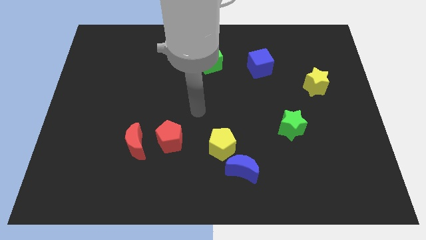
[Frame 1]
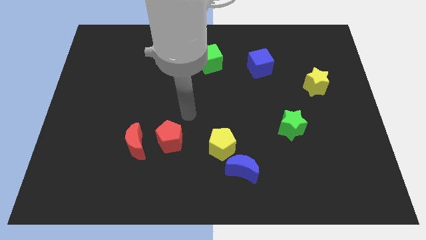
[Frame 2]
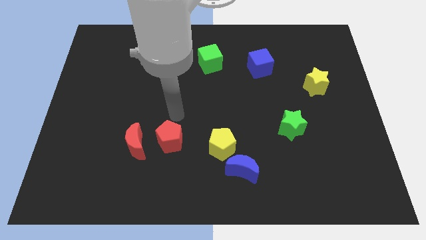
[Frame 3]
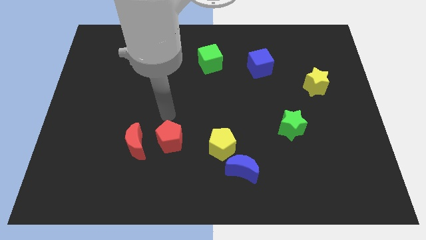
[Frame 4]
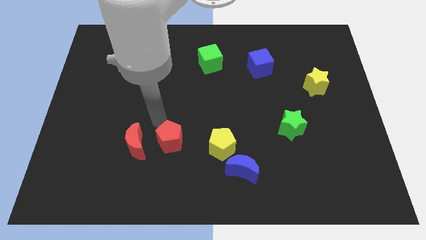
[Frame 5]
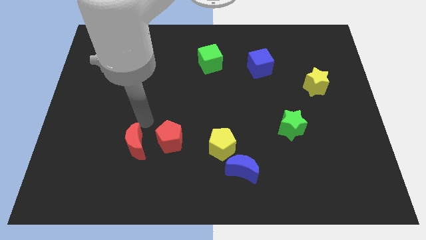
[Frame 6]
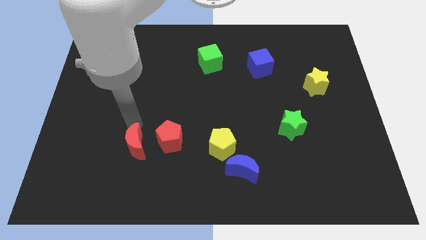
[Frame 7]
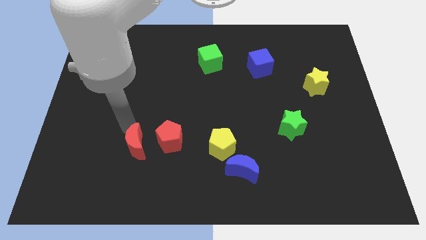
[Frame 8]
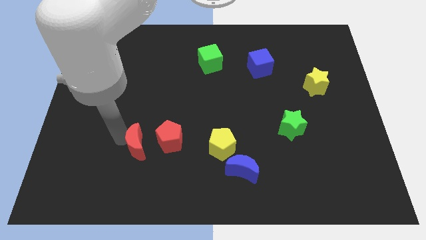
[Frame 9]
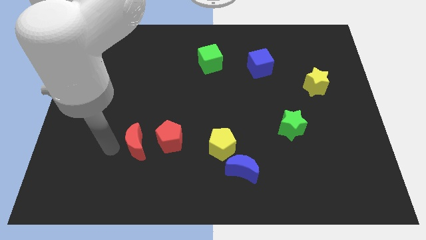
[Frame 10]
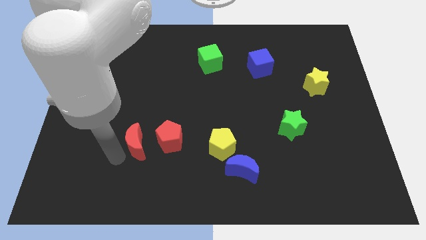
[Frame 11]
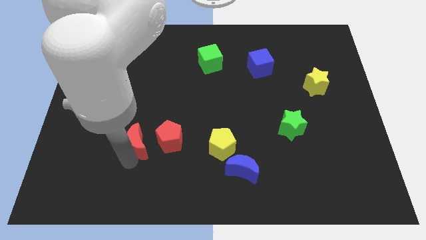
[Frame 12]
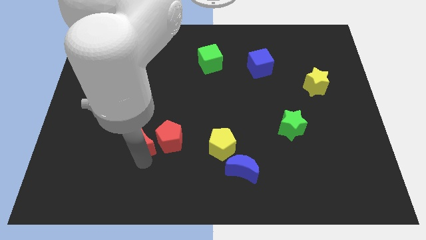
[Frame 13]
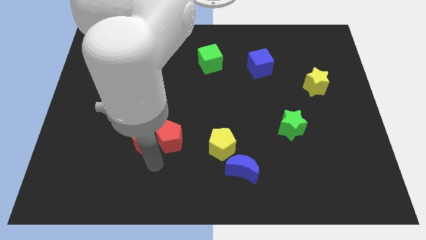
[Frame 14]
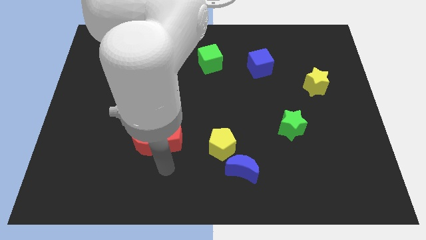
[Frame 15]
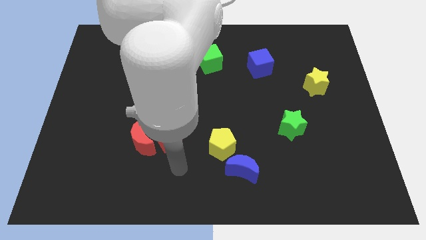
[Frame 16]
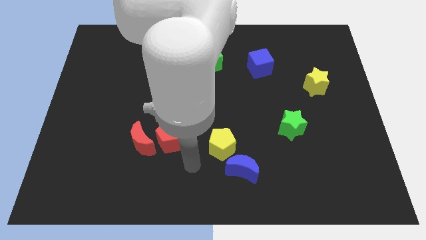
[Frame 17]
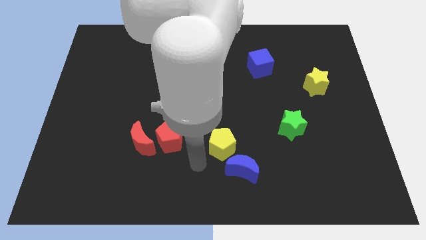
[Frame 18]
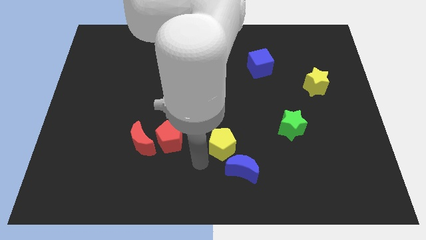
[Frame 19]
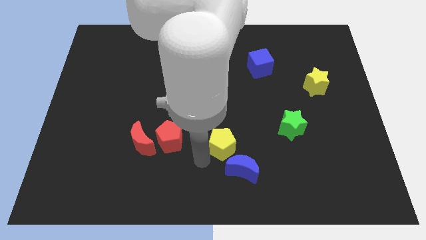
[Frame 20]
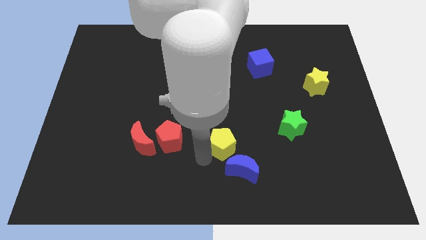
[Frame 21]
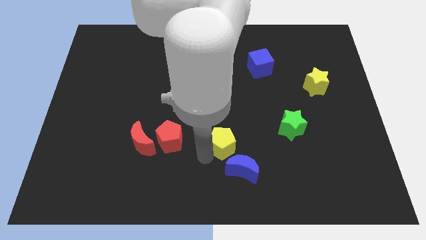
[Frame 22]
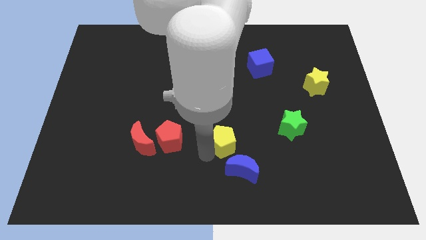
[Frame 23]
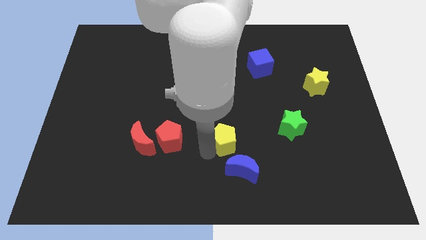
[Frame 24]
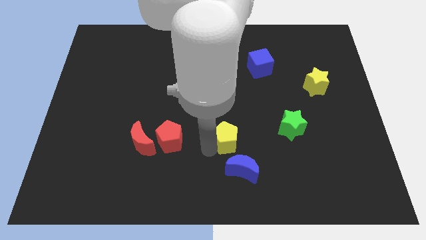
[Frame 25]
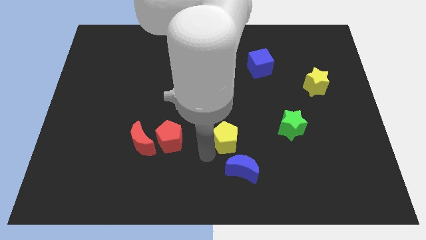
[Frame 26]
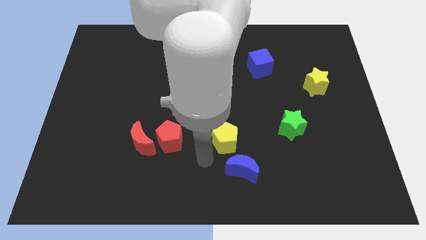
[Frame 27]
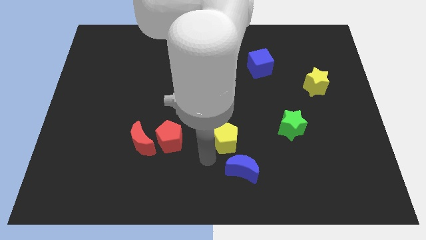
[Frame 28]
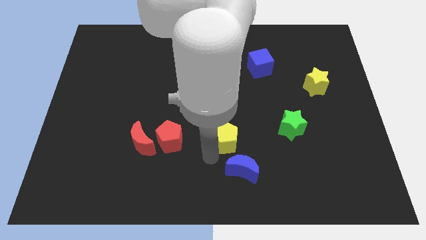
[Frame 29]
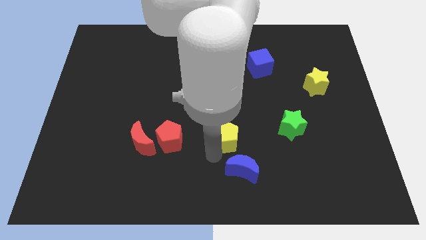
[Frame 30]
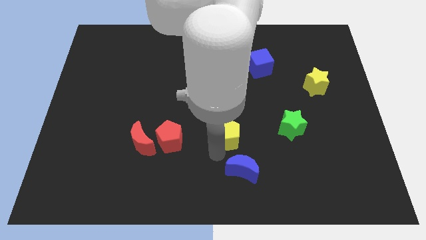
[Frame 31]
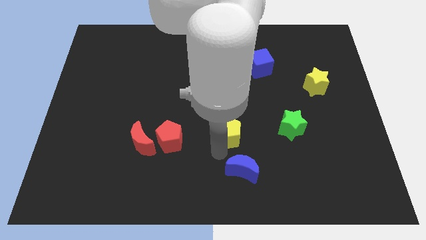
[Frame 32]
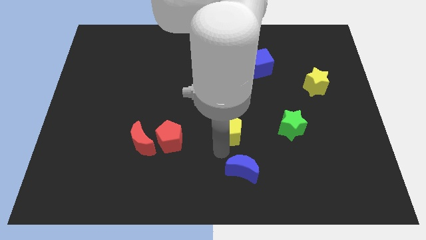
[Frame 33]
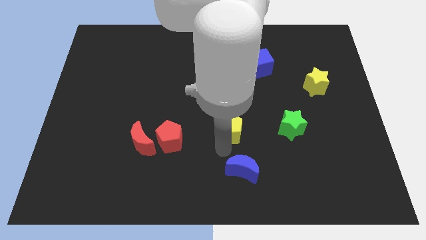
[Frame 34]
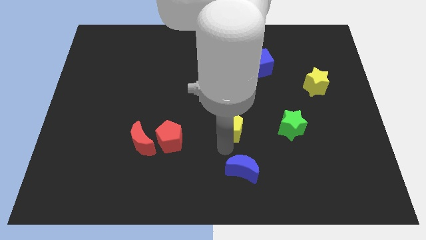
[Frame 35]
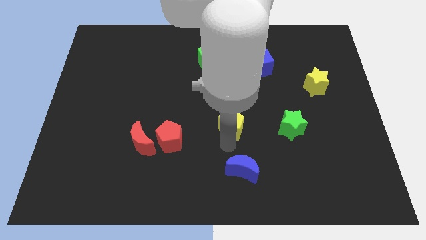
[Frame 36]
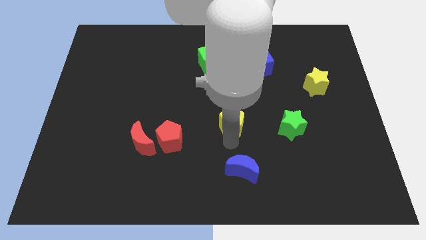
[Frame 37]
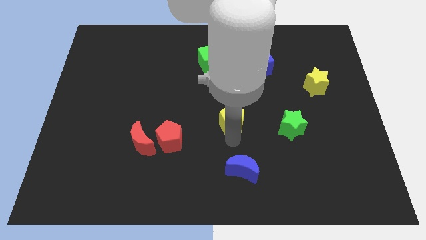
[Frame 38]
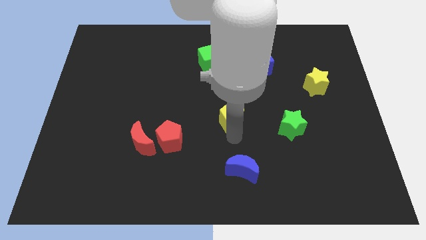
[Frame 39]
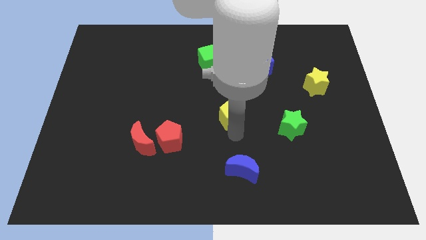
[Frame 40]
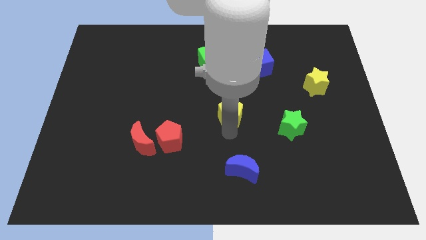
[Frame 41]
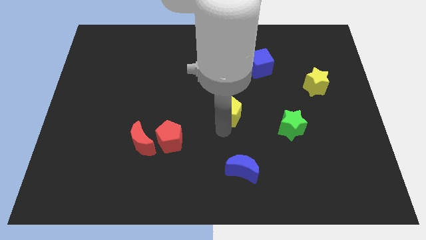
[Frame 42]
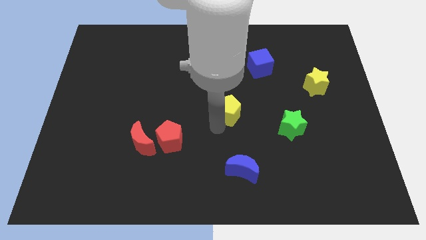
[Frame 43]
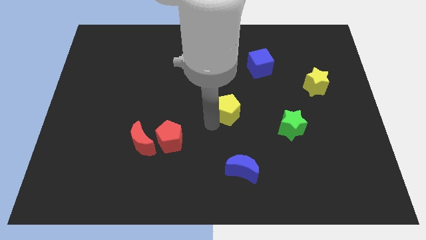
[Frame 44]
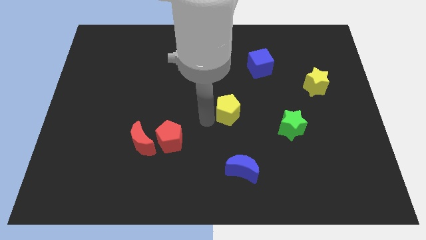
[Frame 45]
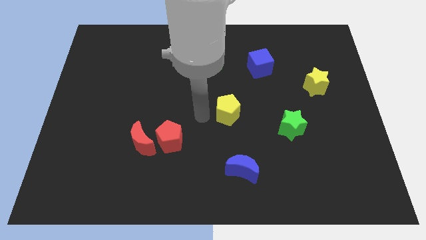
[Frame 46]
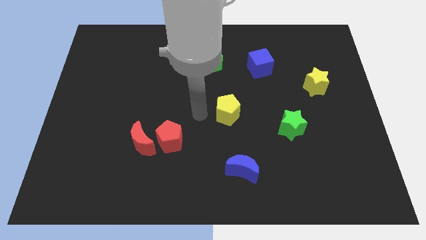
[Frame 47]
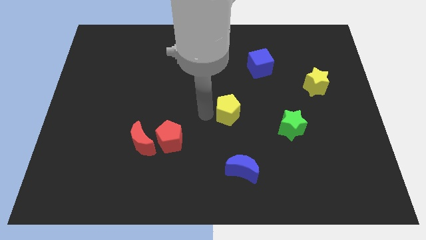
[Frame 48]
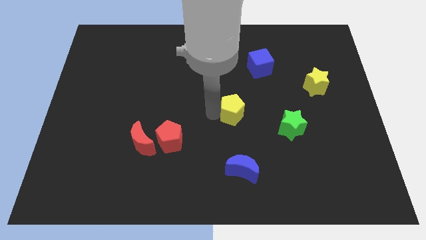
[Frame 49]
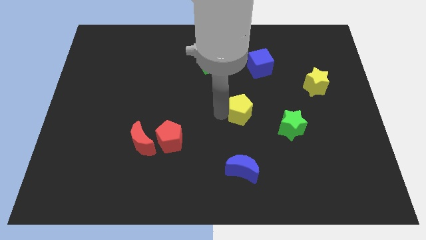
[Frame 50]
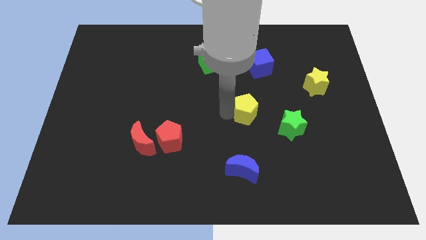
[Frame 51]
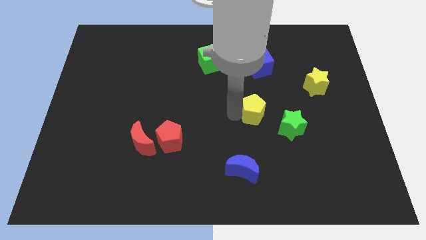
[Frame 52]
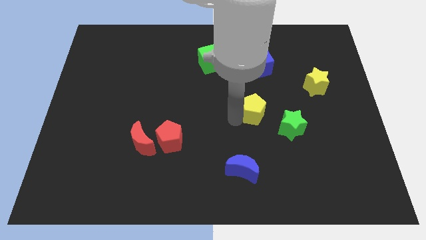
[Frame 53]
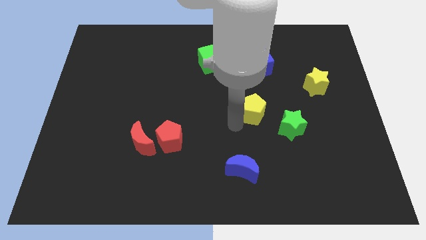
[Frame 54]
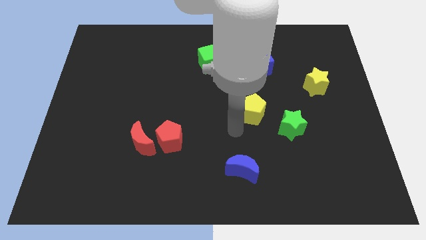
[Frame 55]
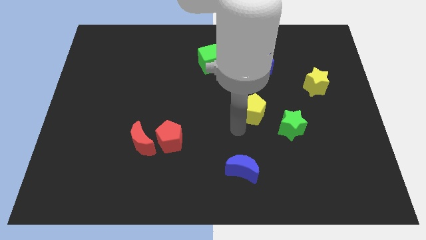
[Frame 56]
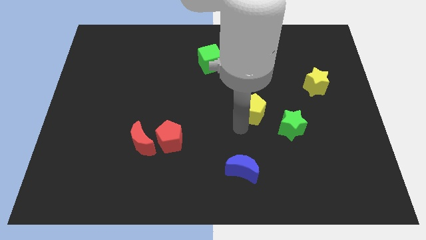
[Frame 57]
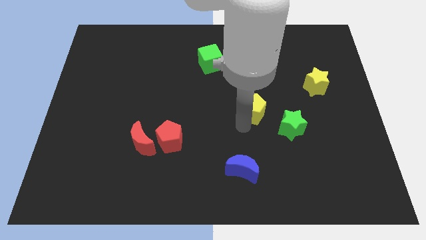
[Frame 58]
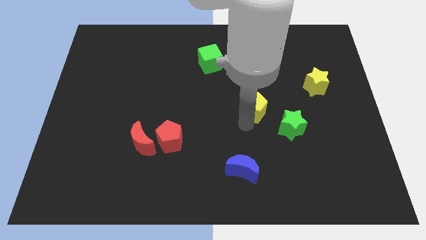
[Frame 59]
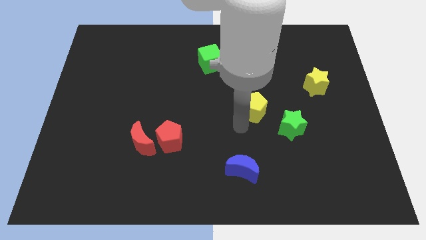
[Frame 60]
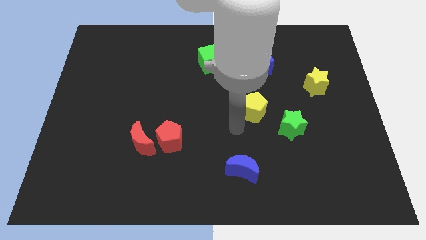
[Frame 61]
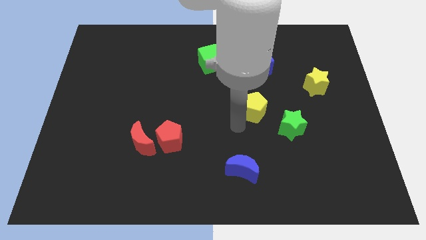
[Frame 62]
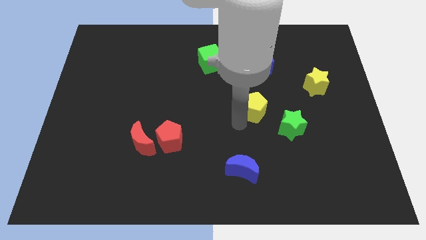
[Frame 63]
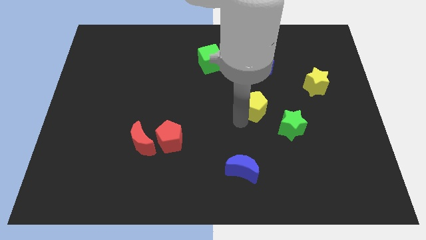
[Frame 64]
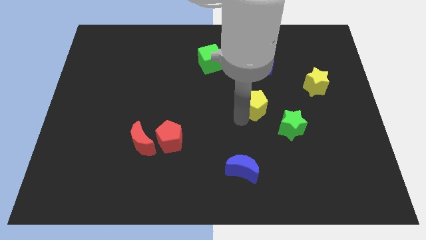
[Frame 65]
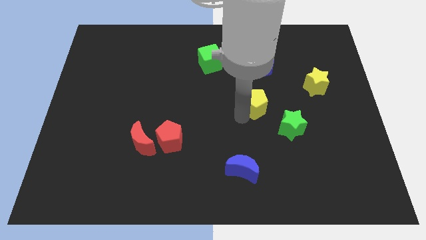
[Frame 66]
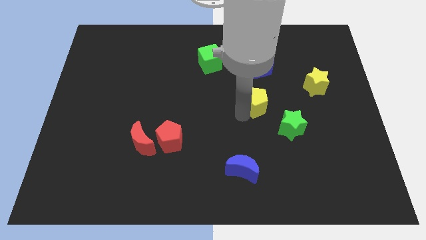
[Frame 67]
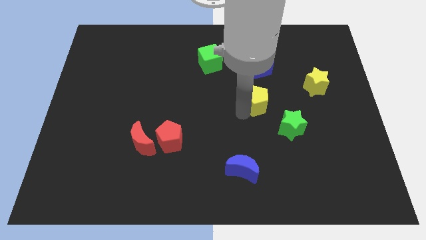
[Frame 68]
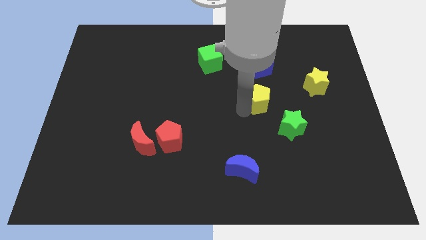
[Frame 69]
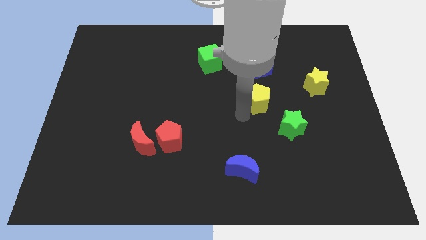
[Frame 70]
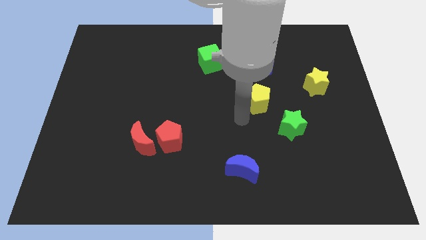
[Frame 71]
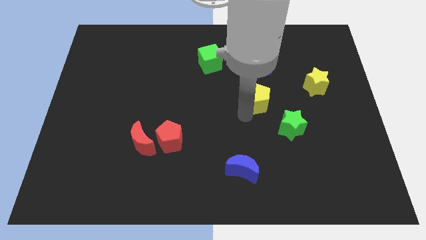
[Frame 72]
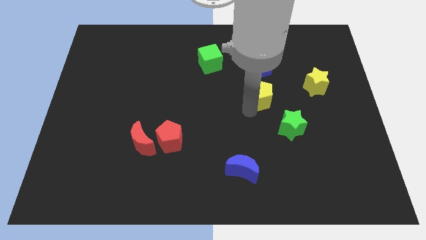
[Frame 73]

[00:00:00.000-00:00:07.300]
move the yellow pentagon to the left side of the yellow star
